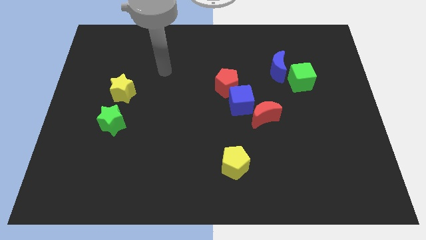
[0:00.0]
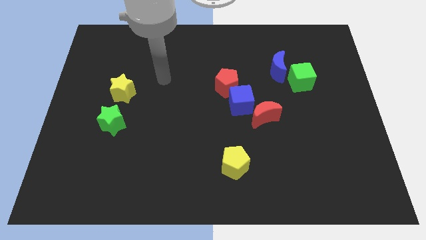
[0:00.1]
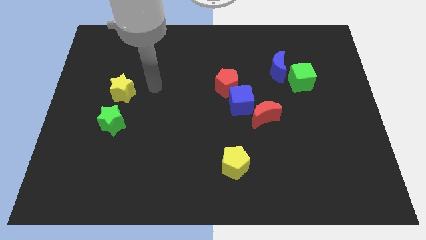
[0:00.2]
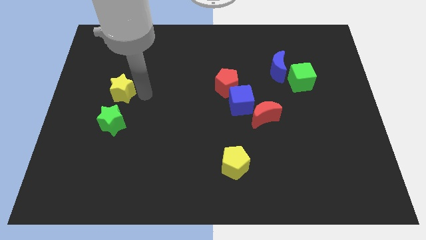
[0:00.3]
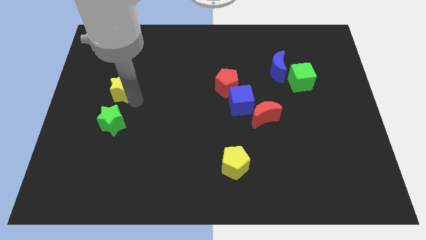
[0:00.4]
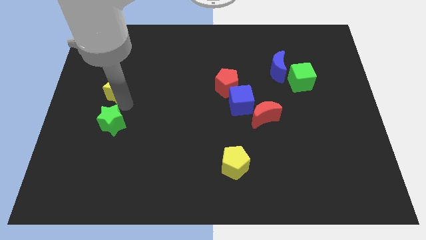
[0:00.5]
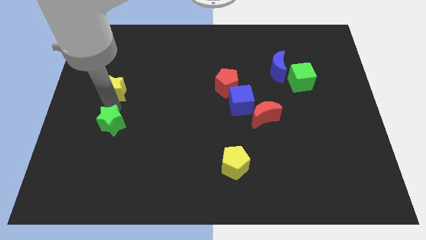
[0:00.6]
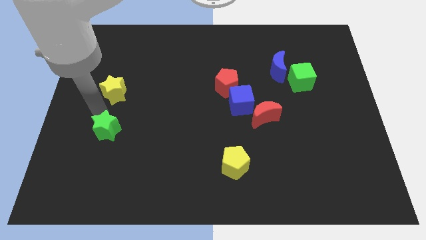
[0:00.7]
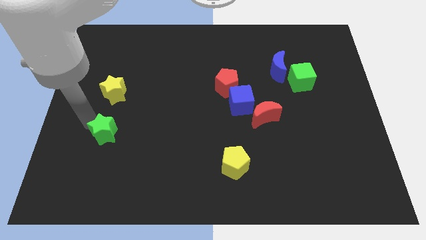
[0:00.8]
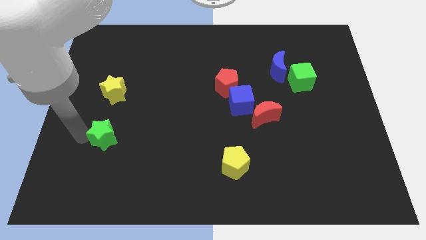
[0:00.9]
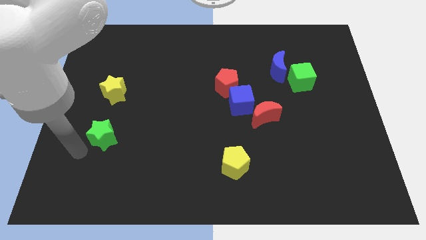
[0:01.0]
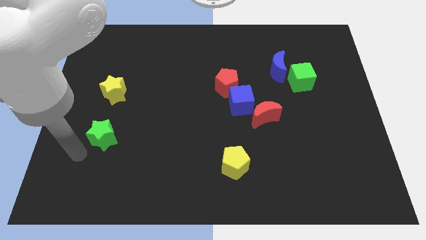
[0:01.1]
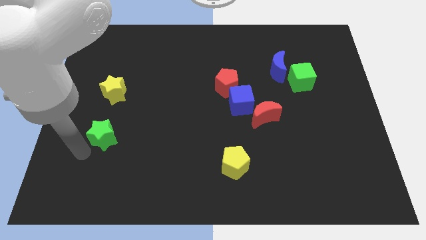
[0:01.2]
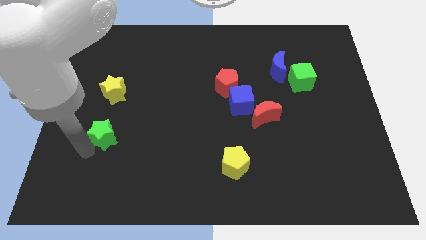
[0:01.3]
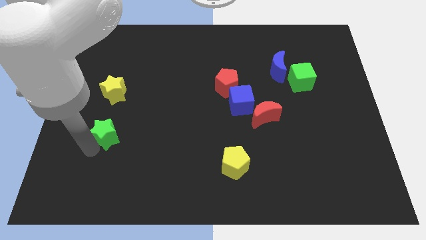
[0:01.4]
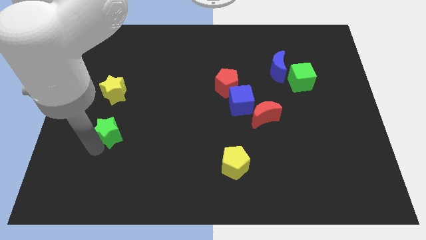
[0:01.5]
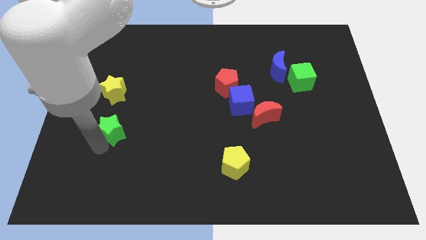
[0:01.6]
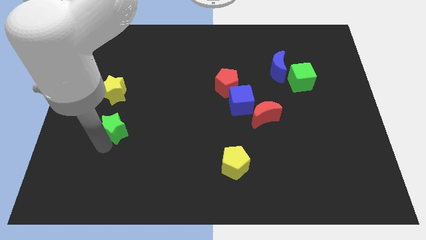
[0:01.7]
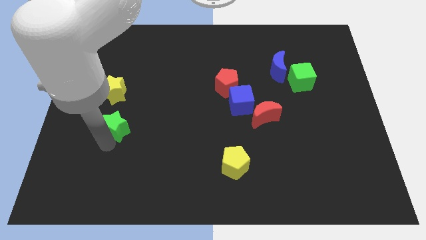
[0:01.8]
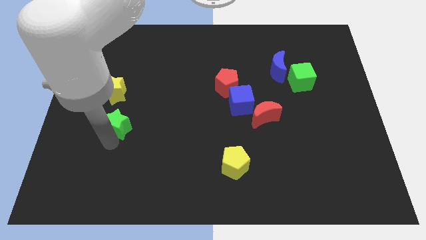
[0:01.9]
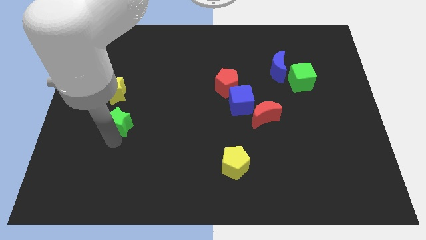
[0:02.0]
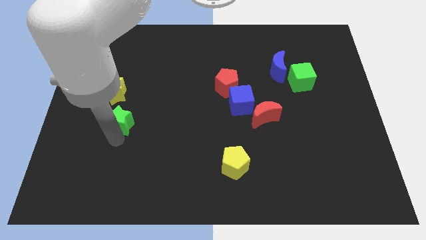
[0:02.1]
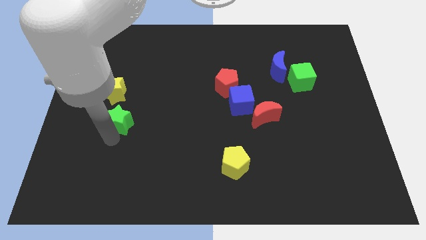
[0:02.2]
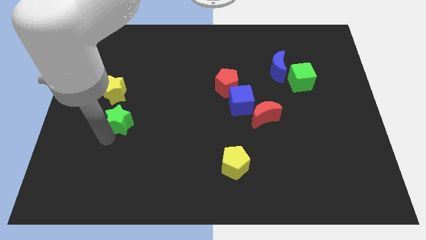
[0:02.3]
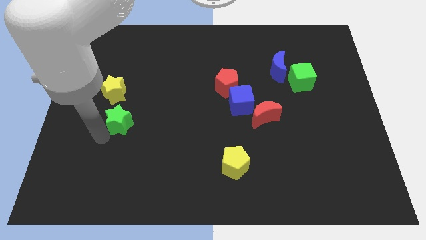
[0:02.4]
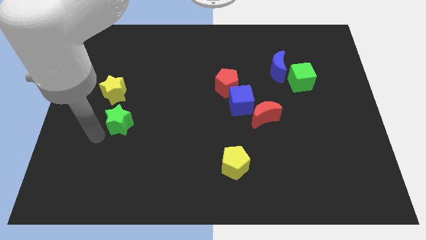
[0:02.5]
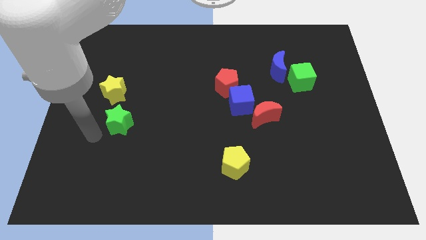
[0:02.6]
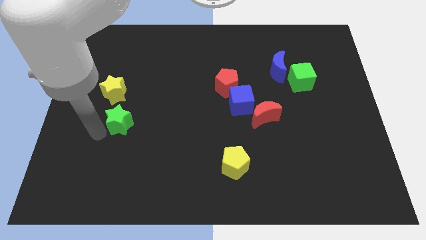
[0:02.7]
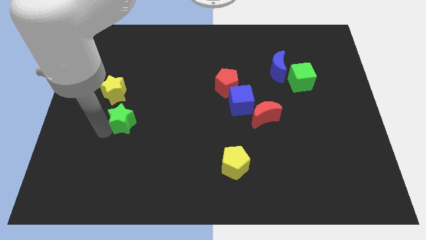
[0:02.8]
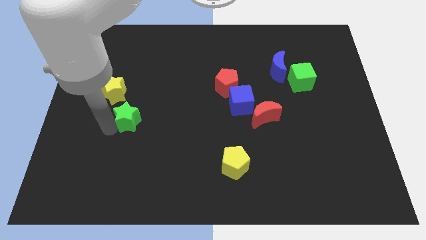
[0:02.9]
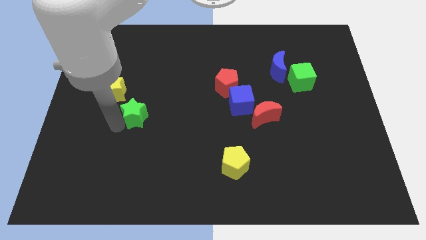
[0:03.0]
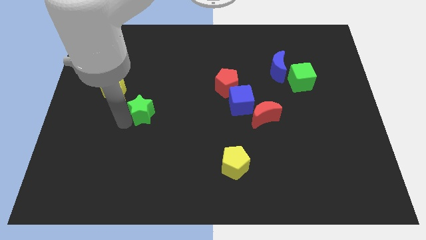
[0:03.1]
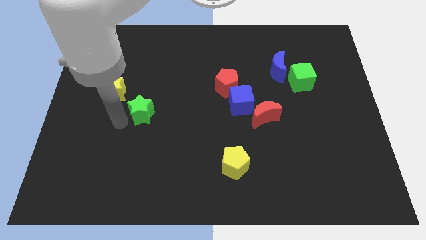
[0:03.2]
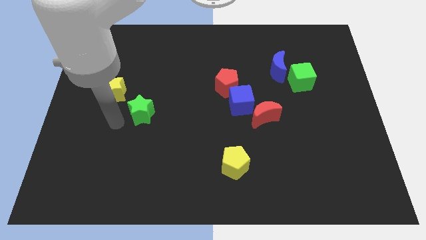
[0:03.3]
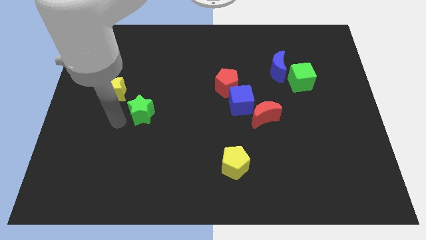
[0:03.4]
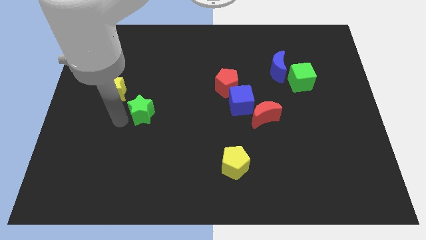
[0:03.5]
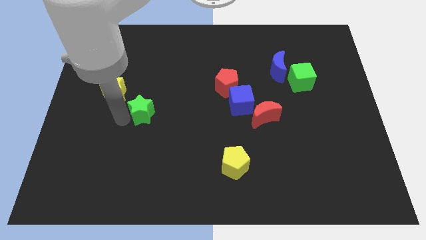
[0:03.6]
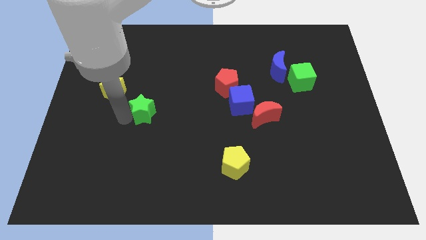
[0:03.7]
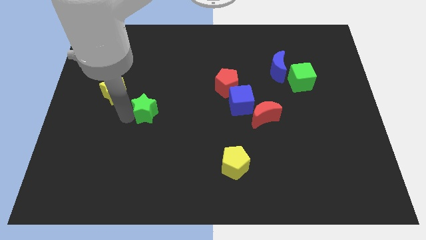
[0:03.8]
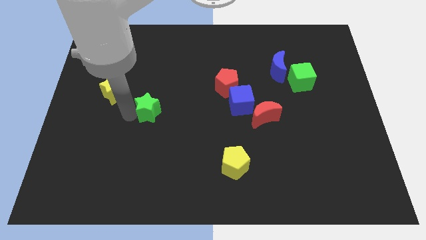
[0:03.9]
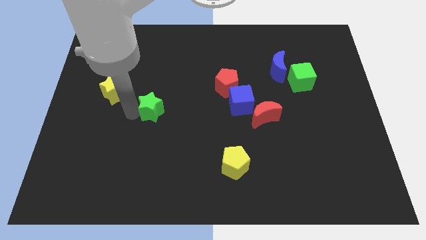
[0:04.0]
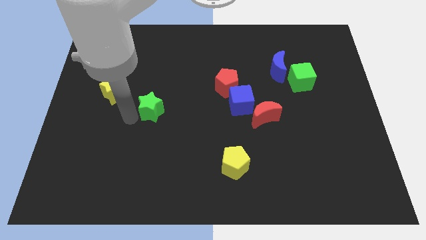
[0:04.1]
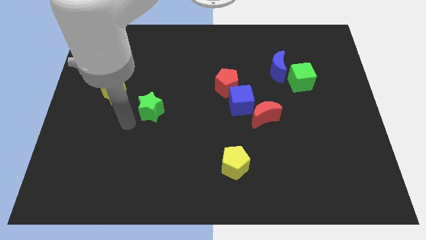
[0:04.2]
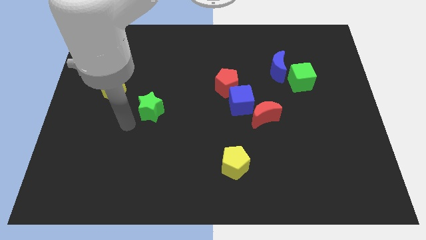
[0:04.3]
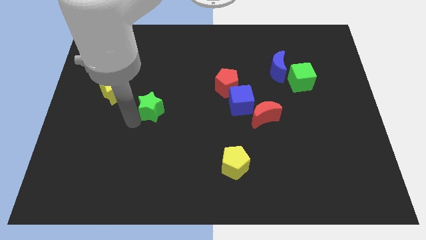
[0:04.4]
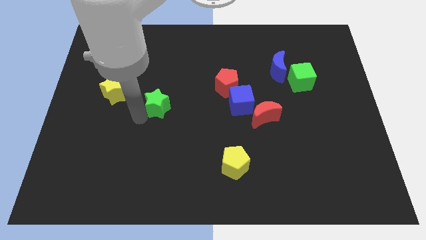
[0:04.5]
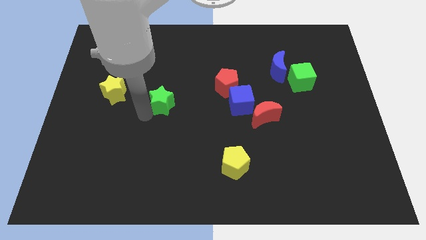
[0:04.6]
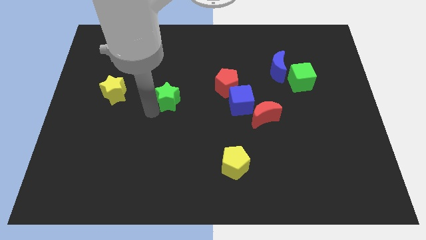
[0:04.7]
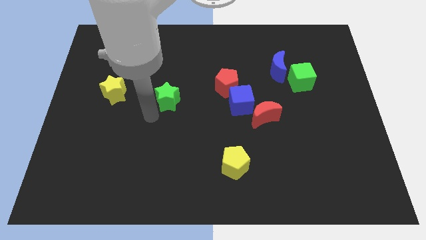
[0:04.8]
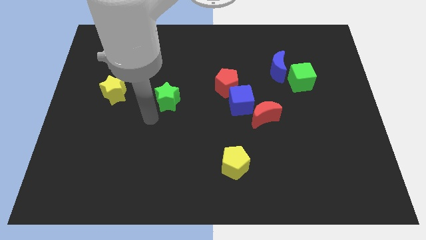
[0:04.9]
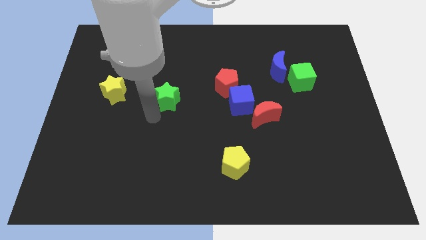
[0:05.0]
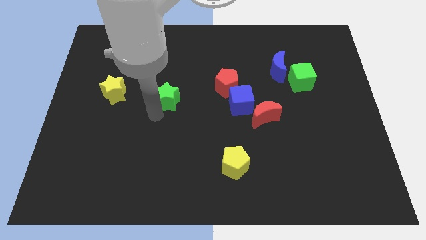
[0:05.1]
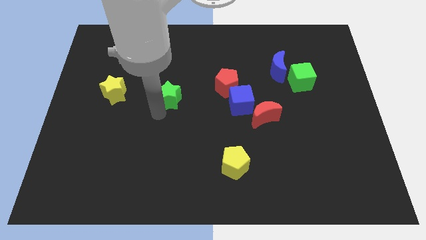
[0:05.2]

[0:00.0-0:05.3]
push the green star left of the red pentagon

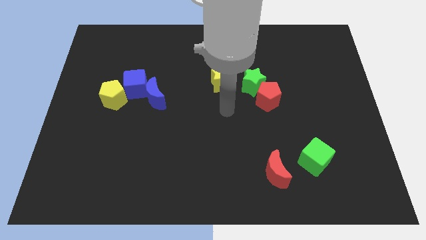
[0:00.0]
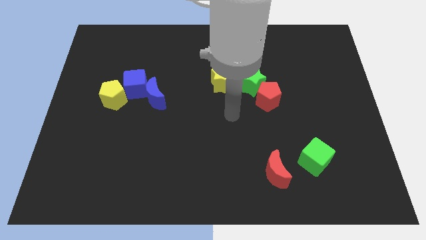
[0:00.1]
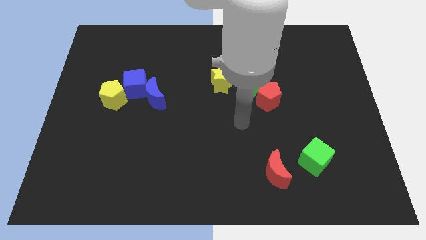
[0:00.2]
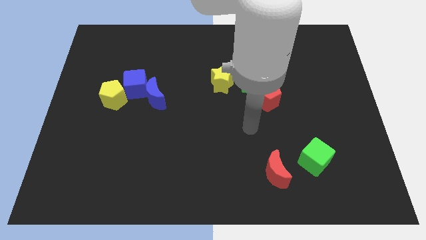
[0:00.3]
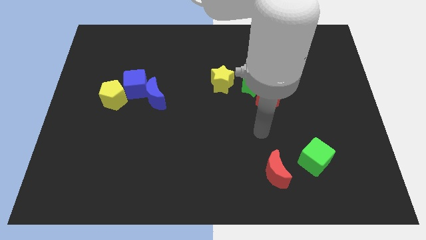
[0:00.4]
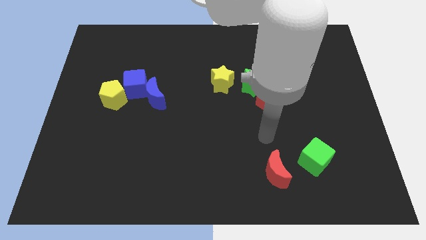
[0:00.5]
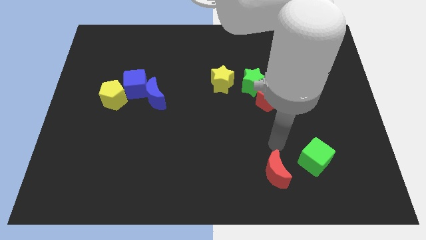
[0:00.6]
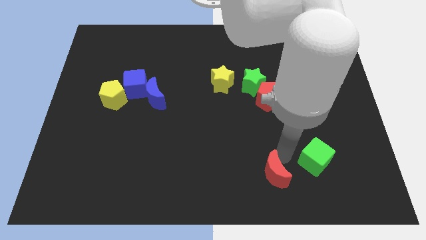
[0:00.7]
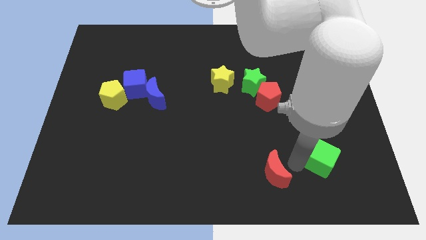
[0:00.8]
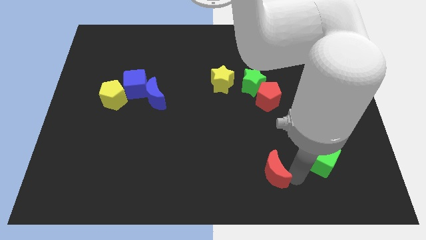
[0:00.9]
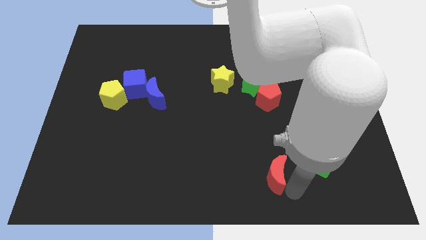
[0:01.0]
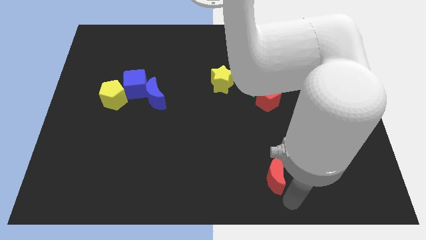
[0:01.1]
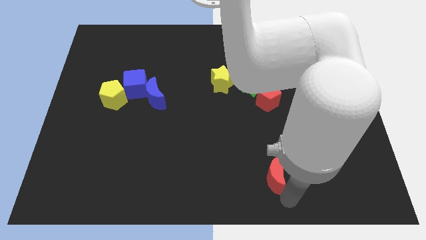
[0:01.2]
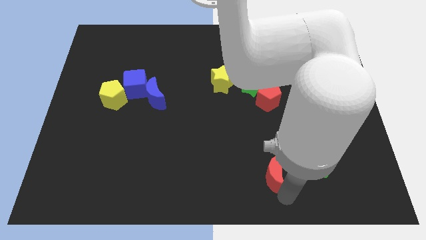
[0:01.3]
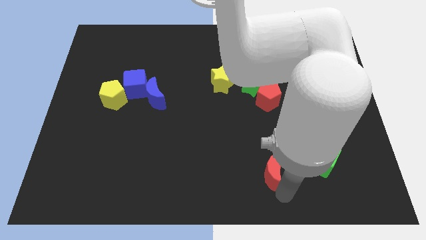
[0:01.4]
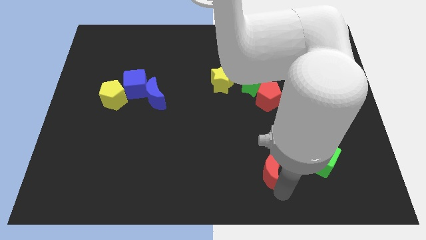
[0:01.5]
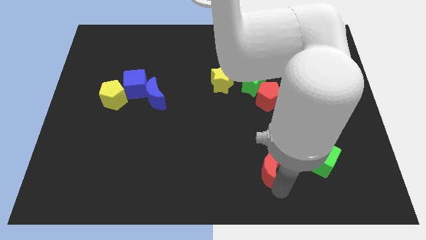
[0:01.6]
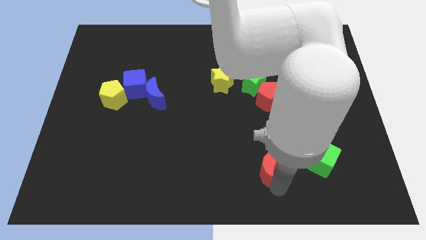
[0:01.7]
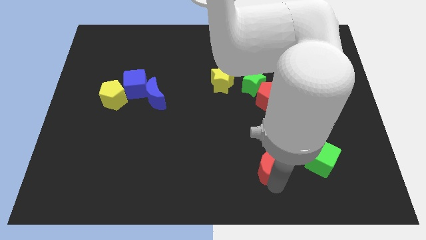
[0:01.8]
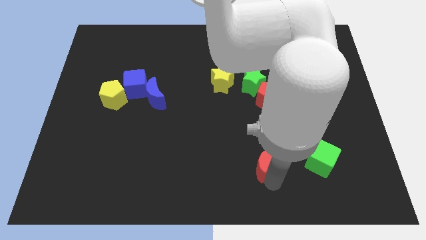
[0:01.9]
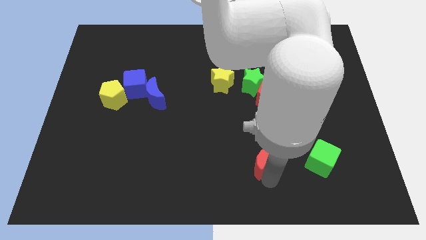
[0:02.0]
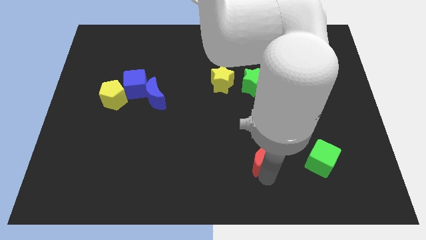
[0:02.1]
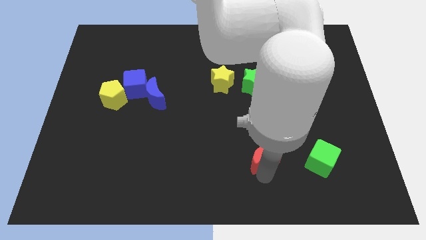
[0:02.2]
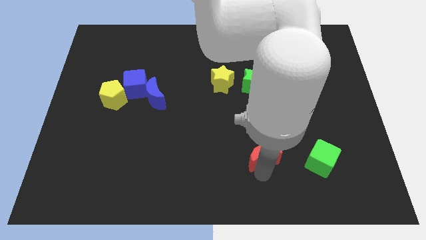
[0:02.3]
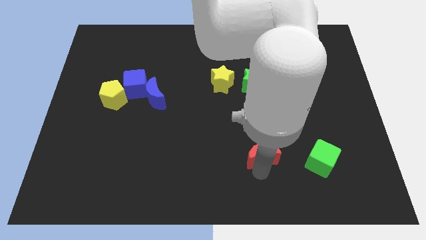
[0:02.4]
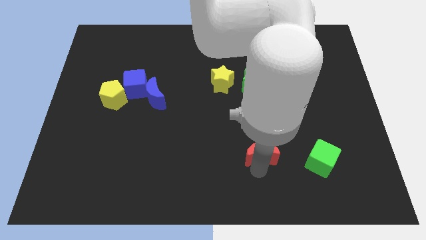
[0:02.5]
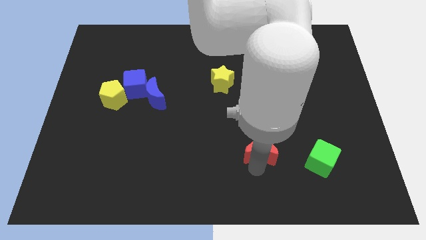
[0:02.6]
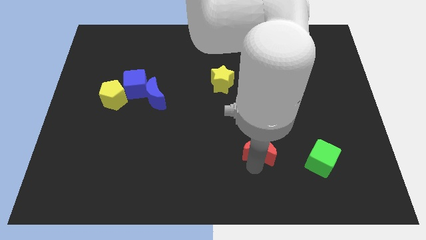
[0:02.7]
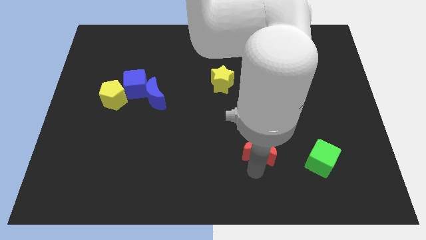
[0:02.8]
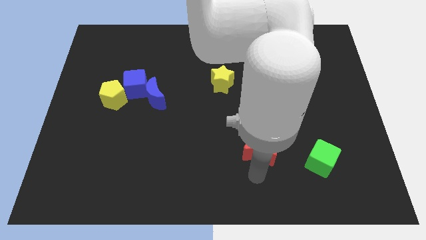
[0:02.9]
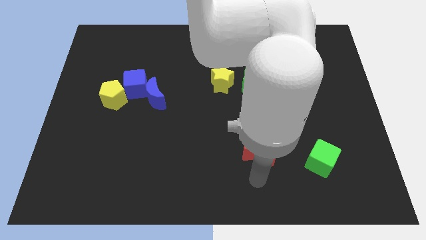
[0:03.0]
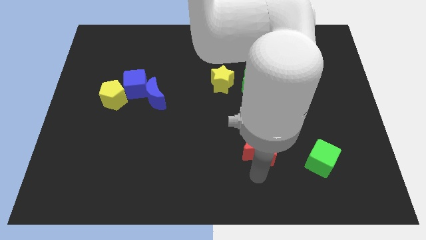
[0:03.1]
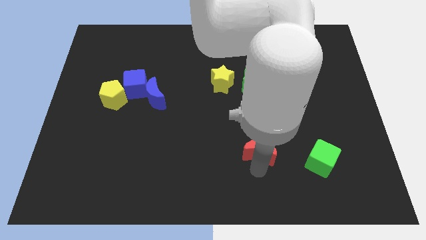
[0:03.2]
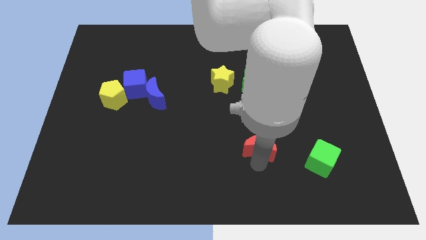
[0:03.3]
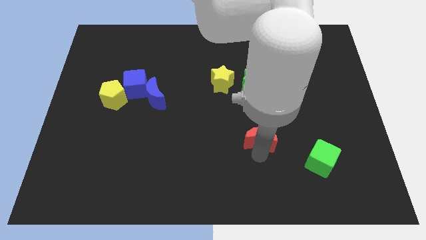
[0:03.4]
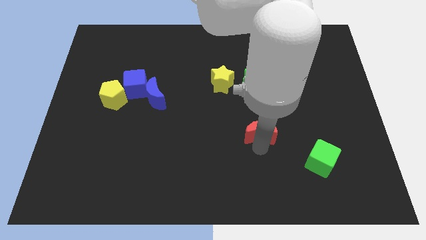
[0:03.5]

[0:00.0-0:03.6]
put the red moon below the green star
